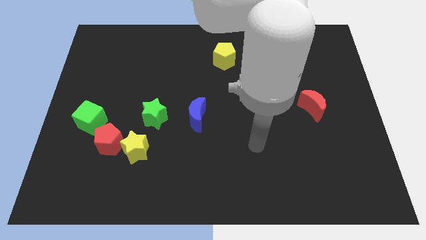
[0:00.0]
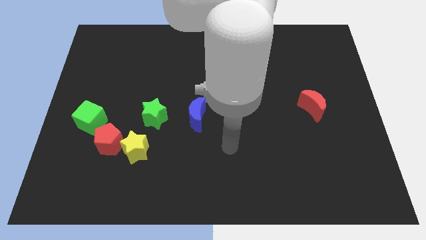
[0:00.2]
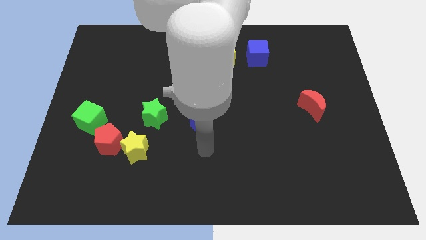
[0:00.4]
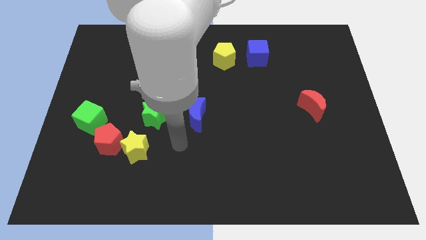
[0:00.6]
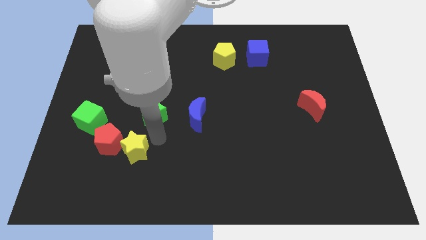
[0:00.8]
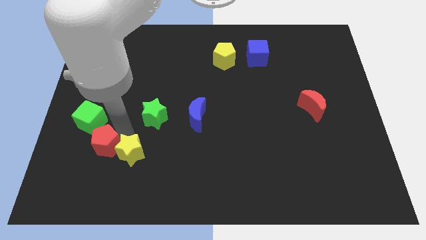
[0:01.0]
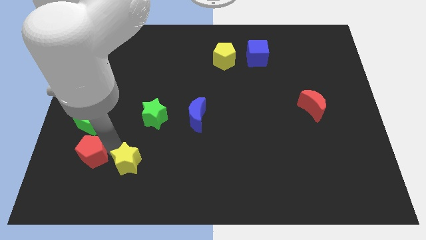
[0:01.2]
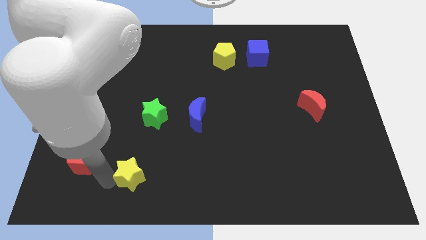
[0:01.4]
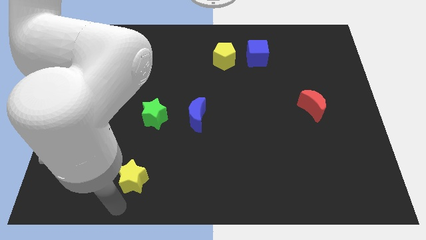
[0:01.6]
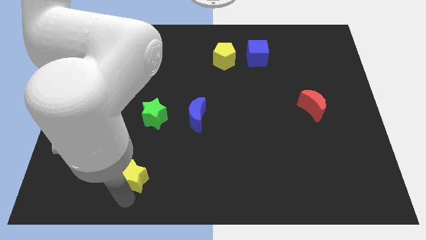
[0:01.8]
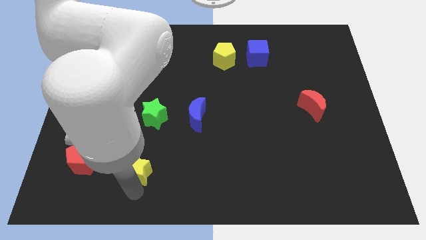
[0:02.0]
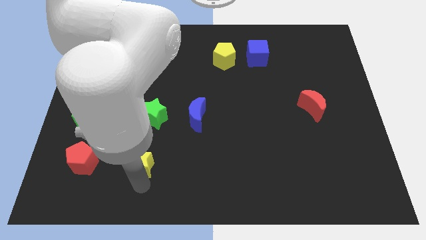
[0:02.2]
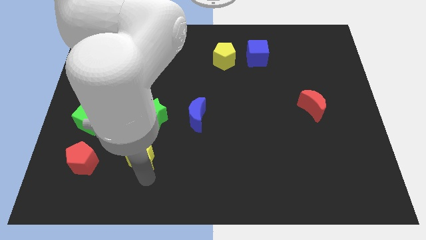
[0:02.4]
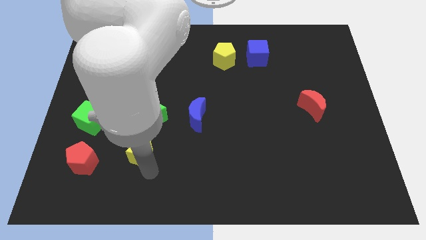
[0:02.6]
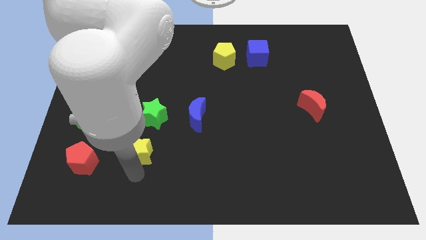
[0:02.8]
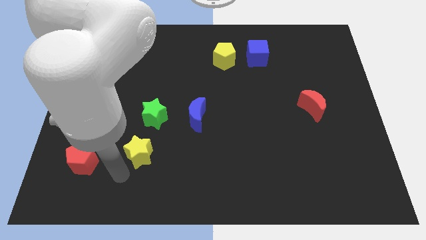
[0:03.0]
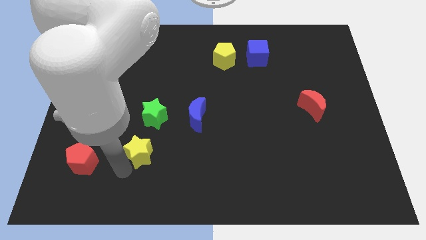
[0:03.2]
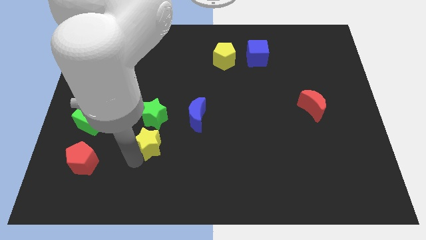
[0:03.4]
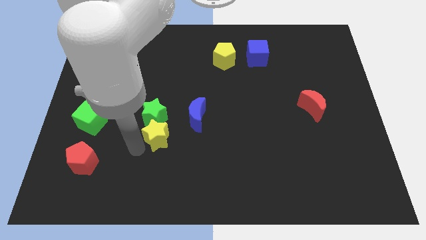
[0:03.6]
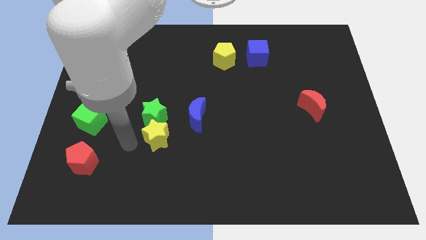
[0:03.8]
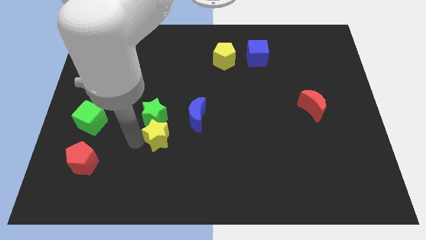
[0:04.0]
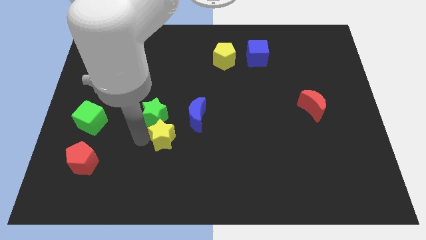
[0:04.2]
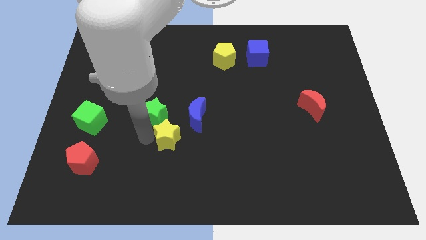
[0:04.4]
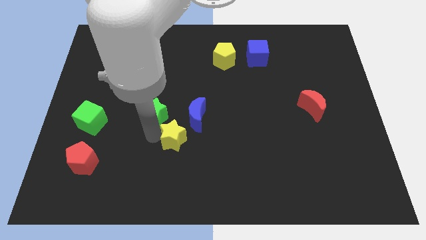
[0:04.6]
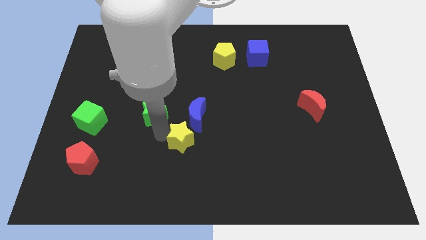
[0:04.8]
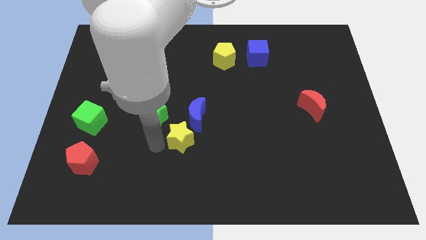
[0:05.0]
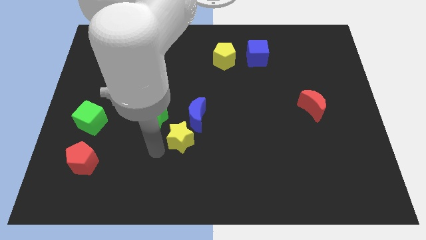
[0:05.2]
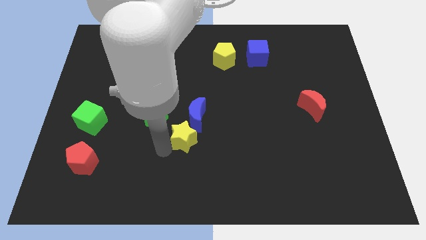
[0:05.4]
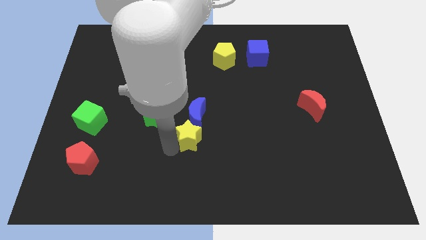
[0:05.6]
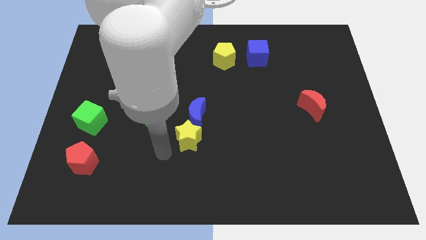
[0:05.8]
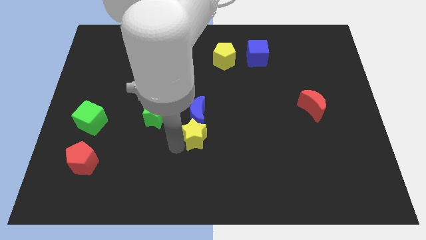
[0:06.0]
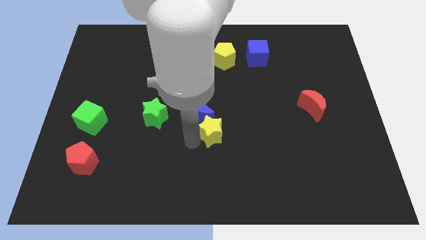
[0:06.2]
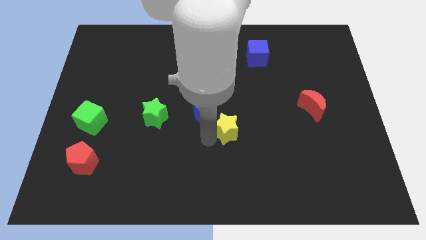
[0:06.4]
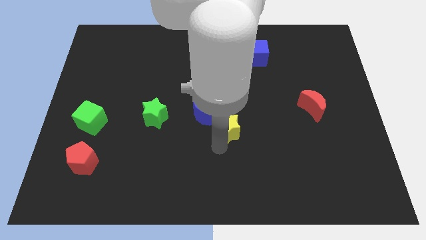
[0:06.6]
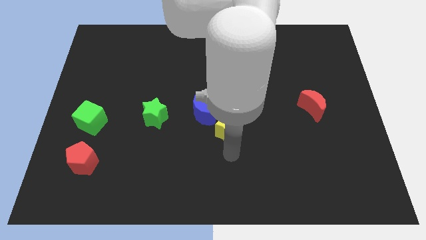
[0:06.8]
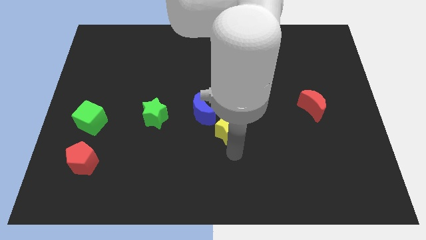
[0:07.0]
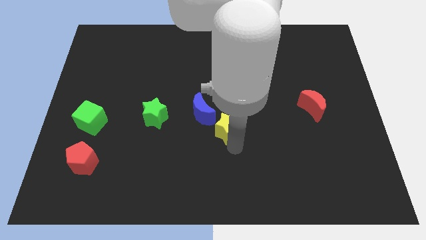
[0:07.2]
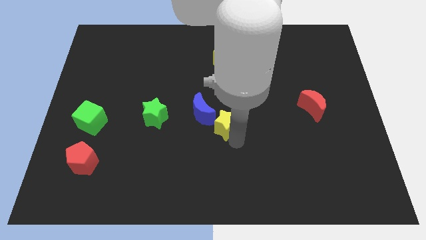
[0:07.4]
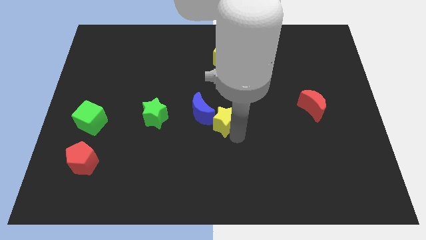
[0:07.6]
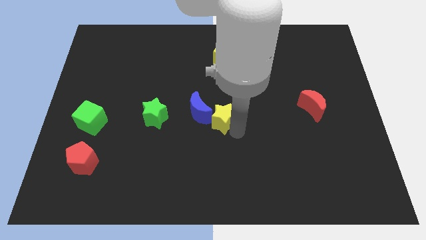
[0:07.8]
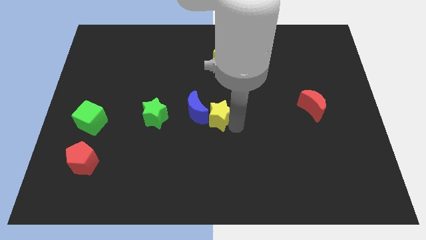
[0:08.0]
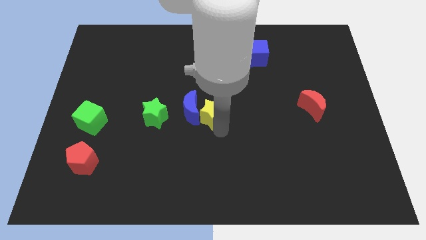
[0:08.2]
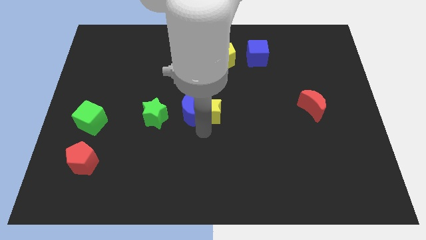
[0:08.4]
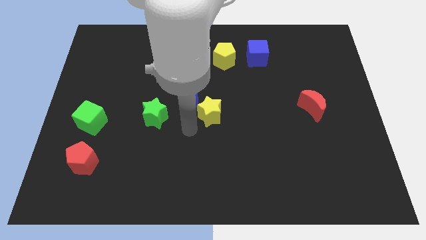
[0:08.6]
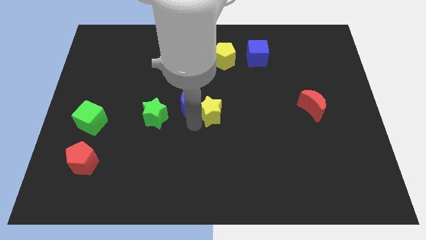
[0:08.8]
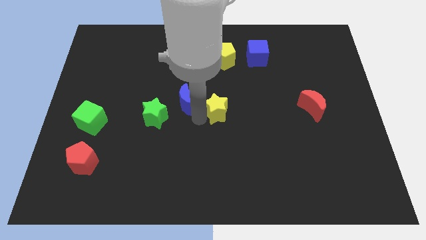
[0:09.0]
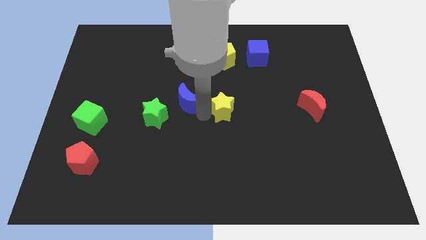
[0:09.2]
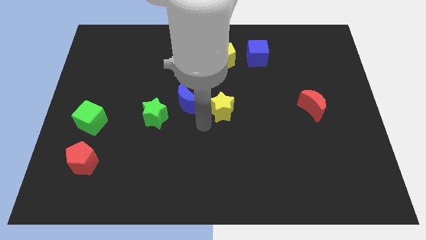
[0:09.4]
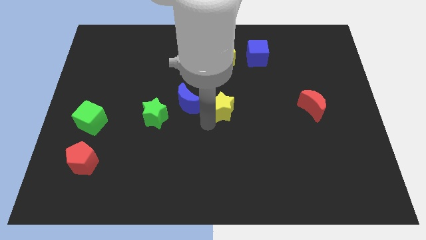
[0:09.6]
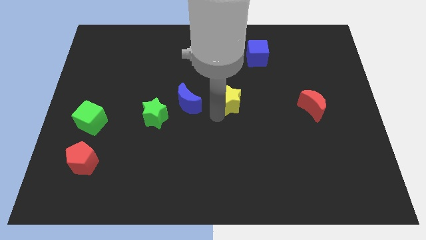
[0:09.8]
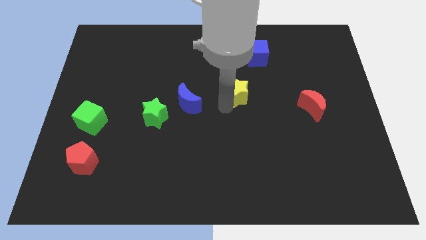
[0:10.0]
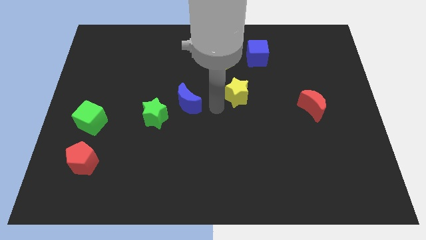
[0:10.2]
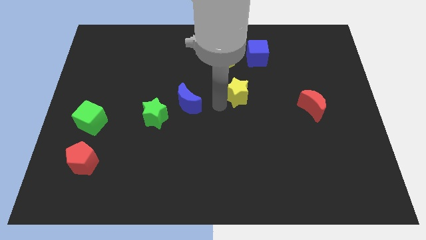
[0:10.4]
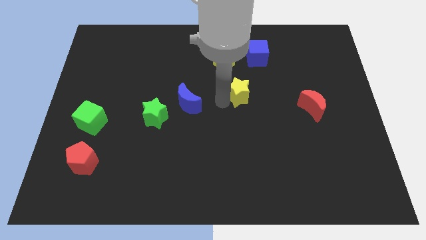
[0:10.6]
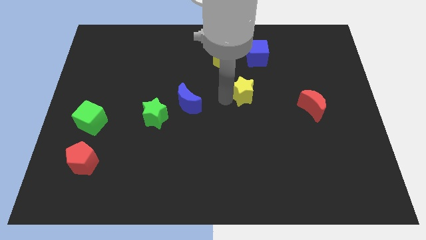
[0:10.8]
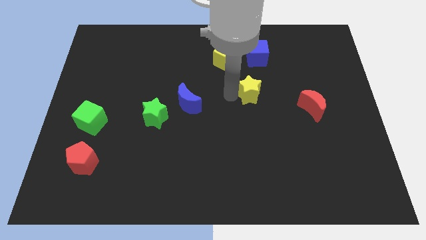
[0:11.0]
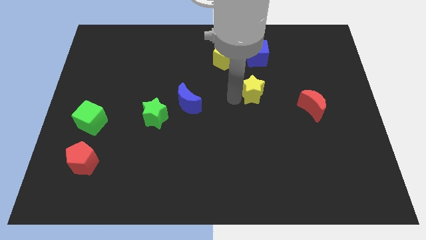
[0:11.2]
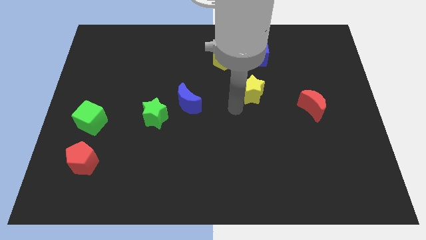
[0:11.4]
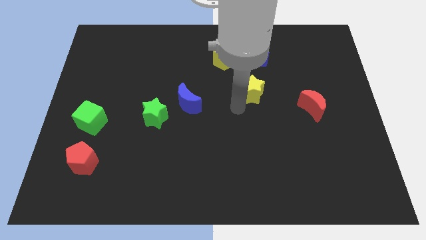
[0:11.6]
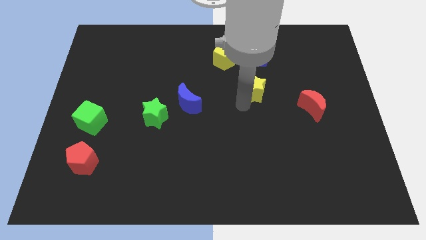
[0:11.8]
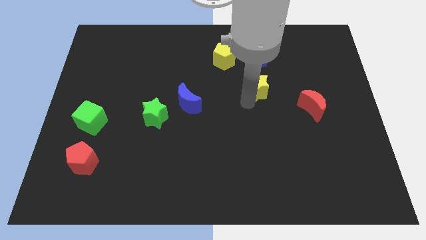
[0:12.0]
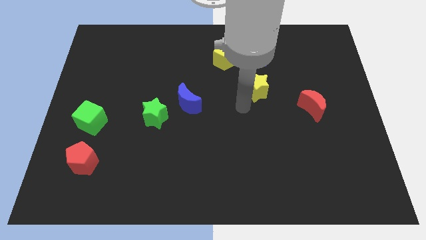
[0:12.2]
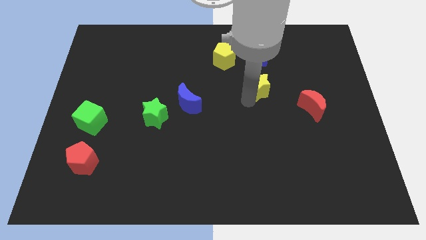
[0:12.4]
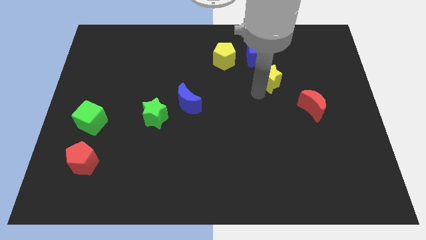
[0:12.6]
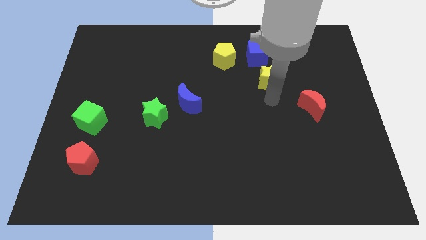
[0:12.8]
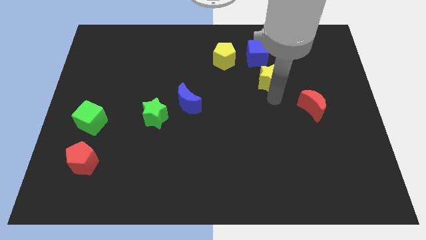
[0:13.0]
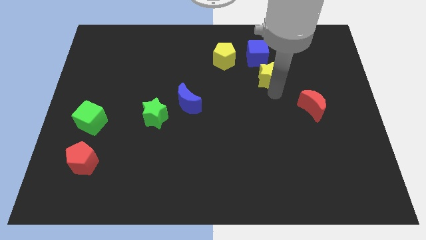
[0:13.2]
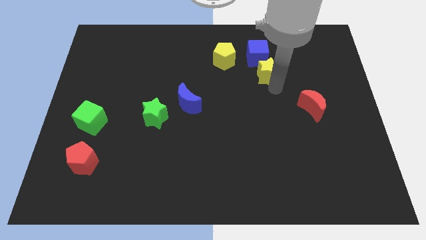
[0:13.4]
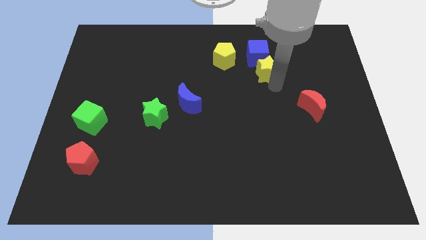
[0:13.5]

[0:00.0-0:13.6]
slide the yellow star to the right of the yellow pentagon

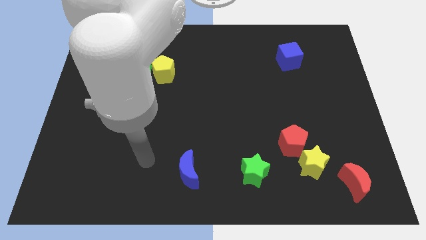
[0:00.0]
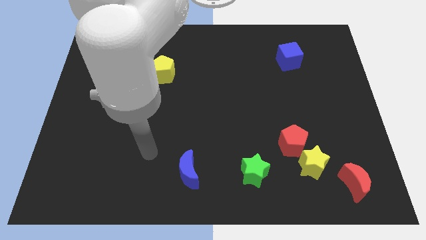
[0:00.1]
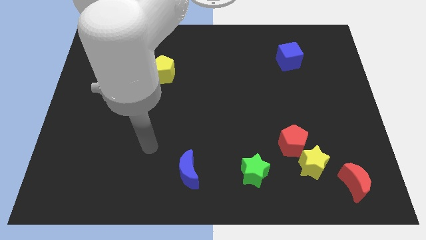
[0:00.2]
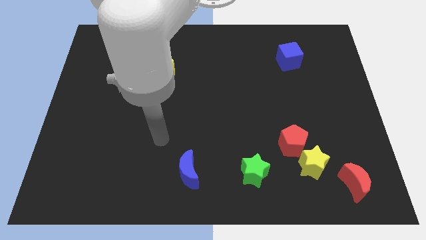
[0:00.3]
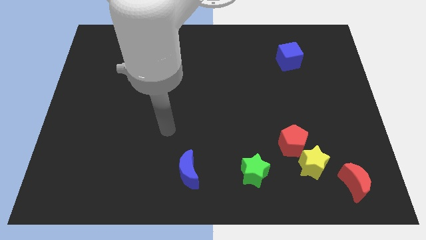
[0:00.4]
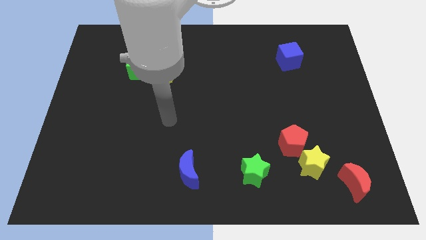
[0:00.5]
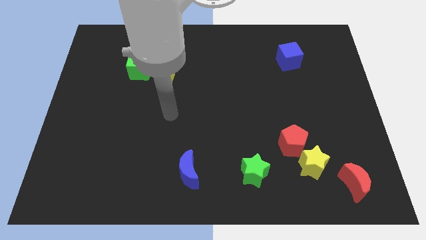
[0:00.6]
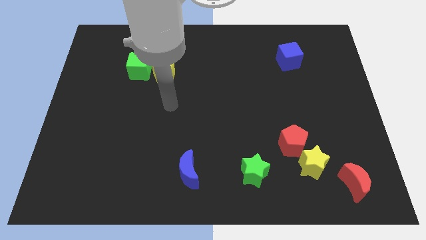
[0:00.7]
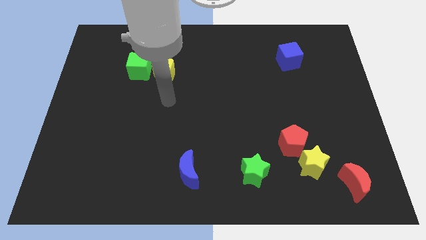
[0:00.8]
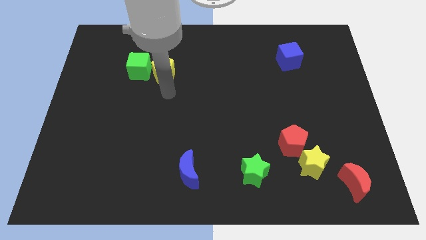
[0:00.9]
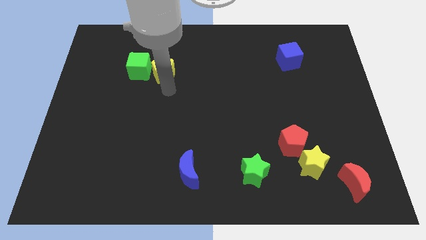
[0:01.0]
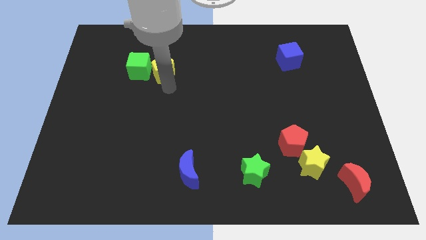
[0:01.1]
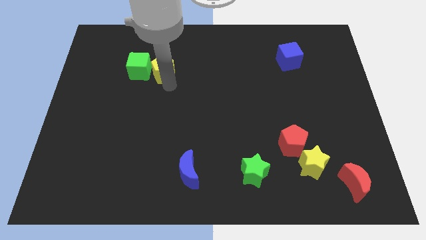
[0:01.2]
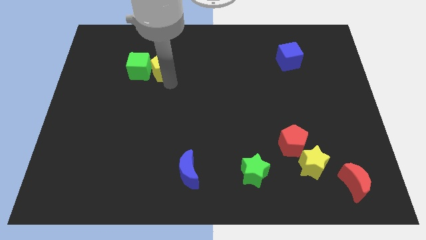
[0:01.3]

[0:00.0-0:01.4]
put the yellow pentagon to the top right side of the green cube
